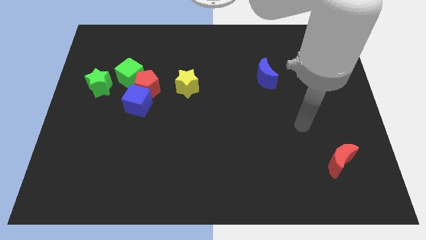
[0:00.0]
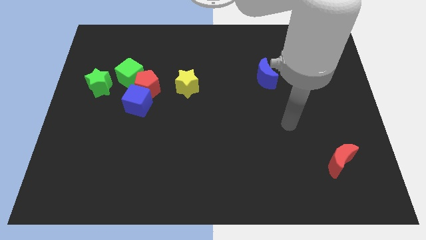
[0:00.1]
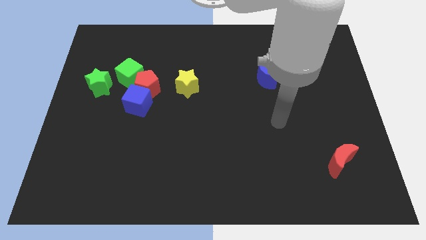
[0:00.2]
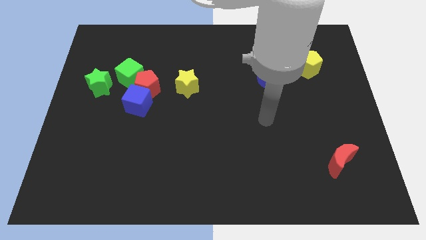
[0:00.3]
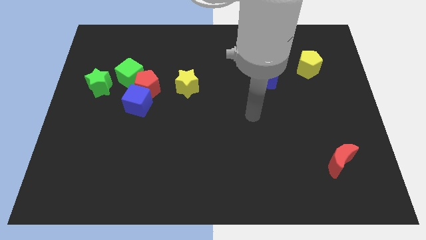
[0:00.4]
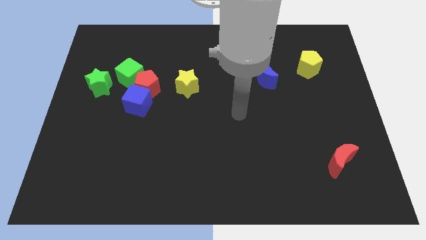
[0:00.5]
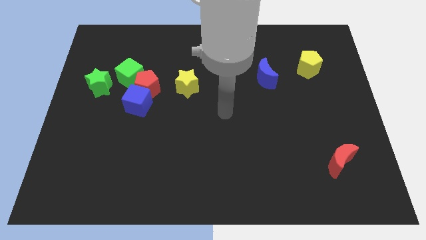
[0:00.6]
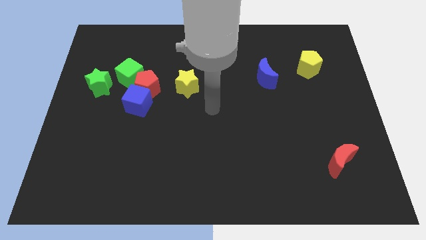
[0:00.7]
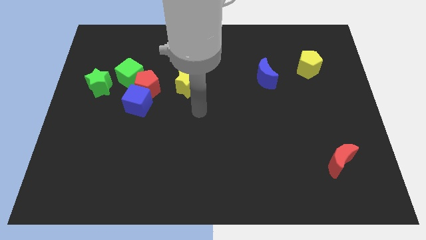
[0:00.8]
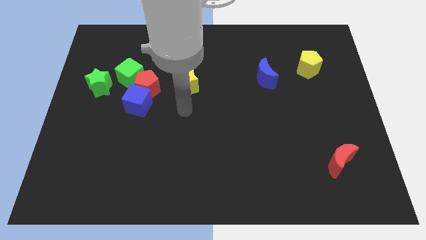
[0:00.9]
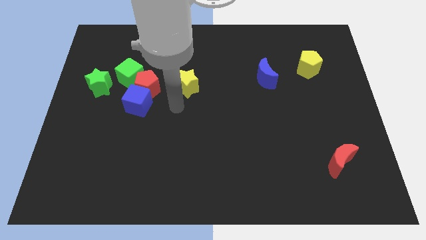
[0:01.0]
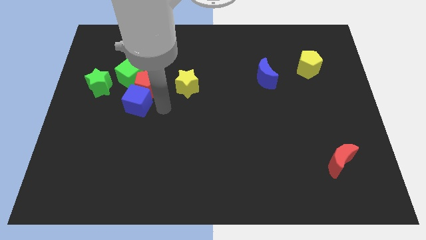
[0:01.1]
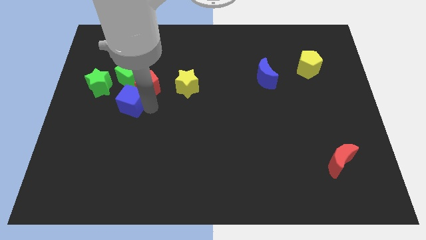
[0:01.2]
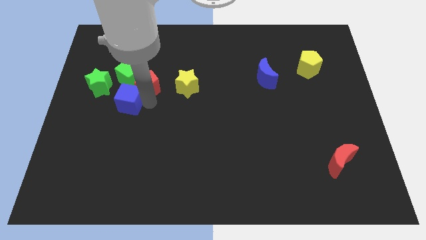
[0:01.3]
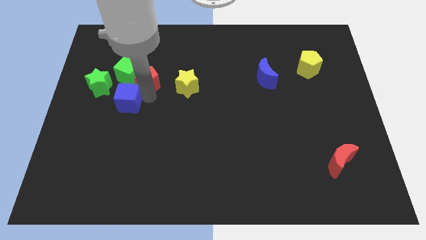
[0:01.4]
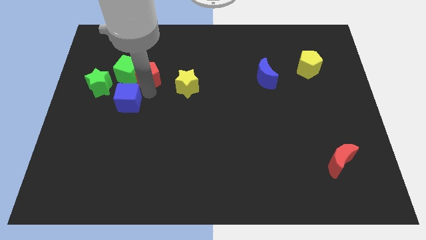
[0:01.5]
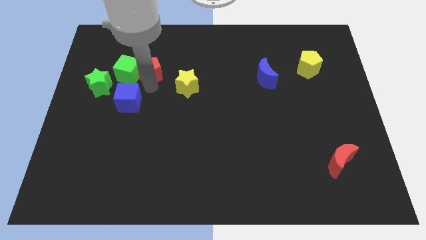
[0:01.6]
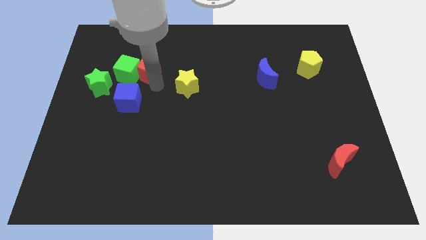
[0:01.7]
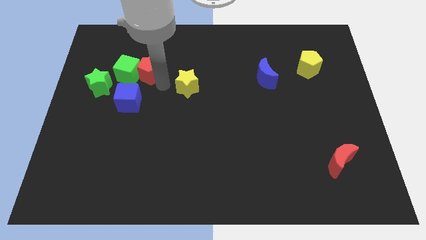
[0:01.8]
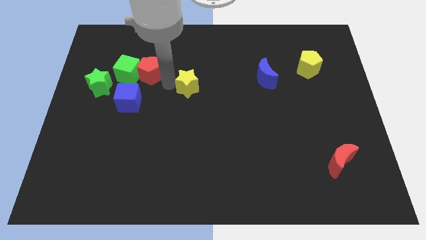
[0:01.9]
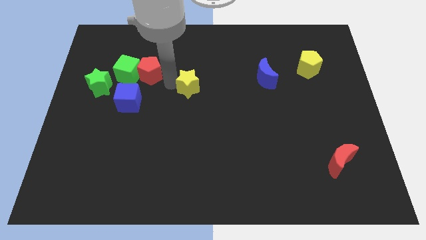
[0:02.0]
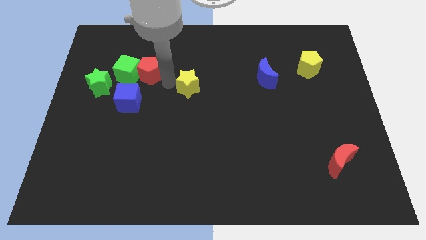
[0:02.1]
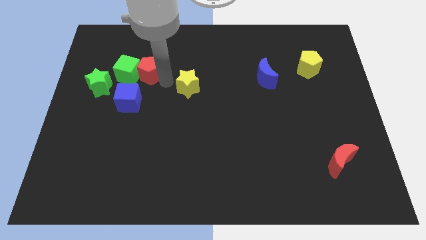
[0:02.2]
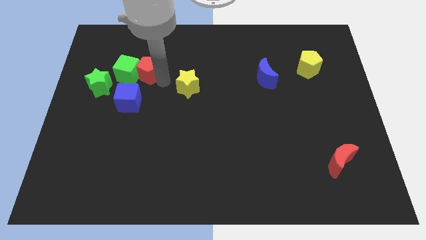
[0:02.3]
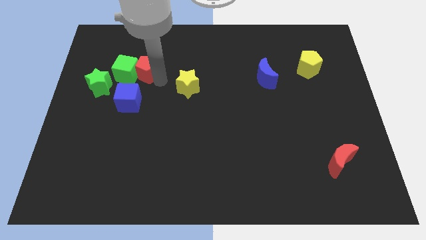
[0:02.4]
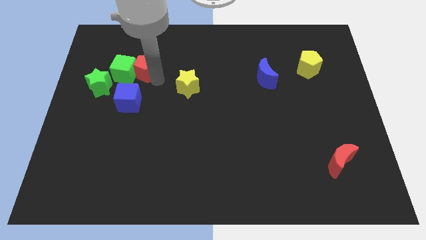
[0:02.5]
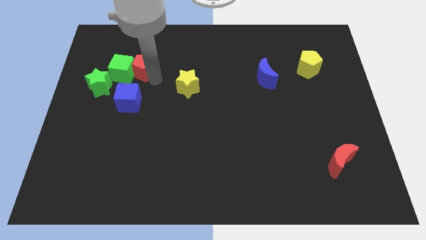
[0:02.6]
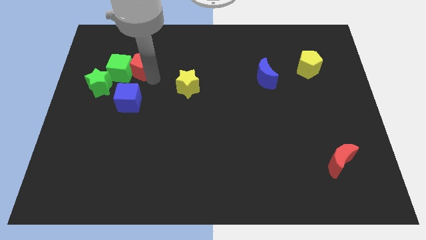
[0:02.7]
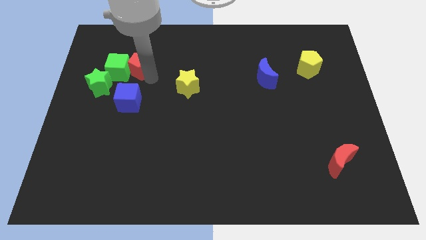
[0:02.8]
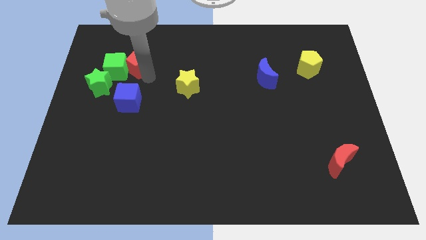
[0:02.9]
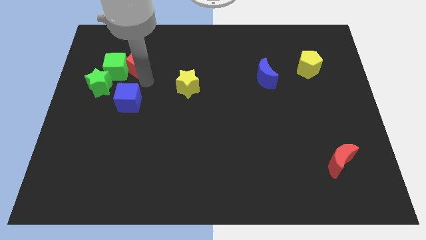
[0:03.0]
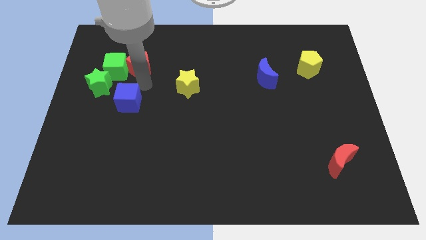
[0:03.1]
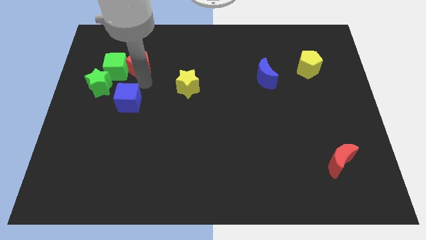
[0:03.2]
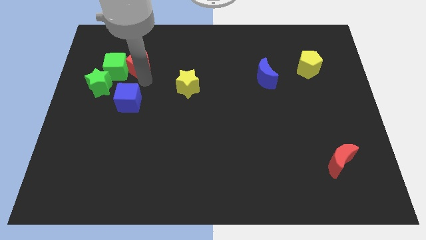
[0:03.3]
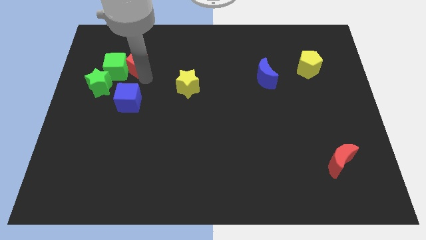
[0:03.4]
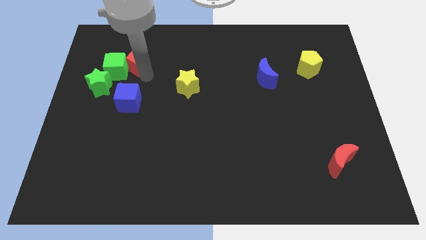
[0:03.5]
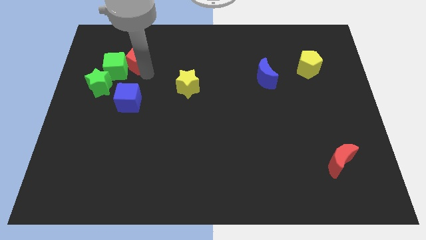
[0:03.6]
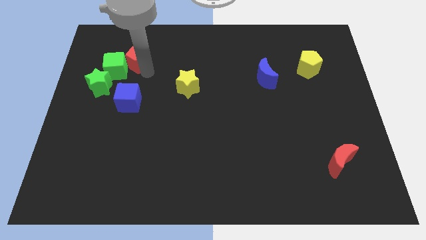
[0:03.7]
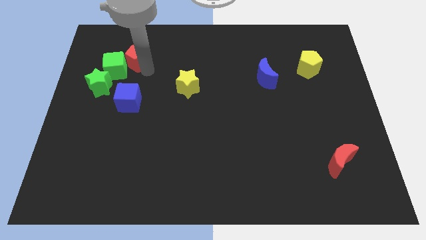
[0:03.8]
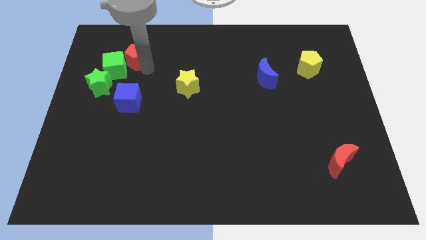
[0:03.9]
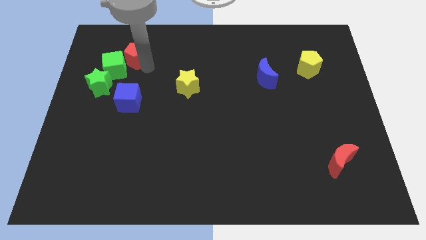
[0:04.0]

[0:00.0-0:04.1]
move the red pentagon away from the clump

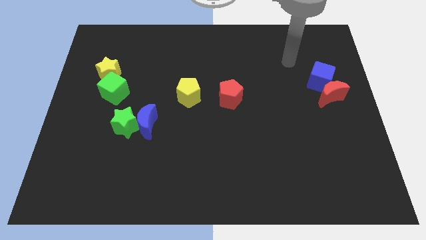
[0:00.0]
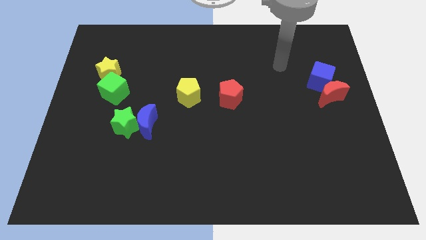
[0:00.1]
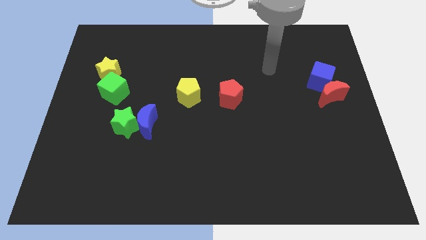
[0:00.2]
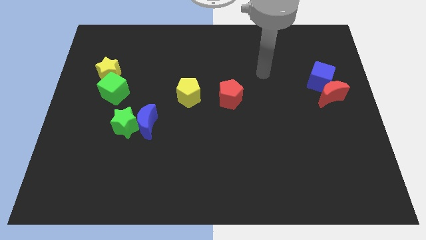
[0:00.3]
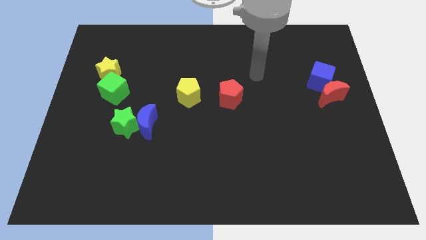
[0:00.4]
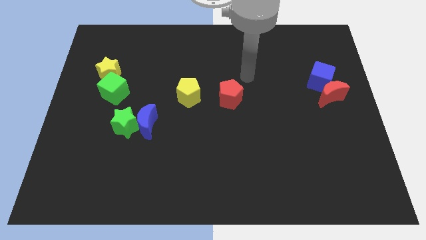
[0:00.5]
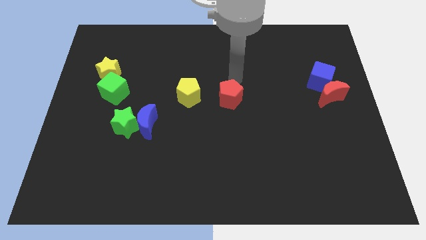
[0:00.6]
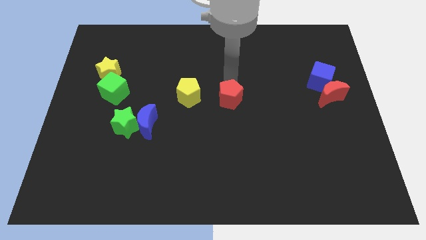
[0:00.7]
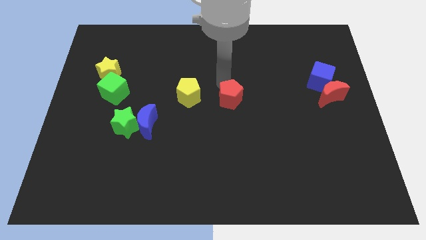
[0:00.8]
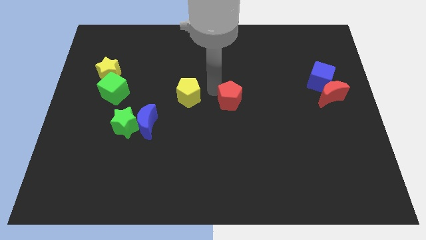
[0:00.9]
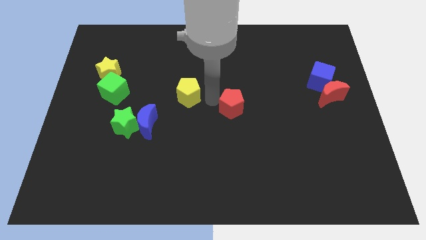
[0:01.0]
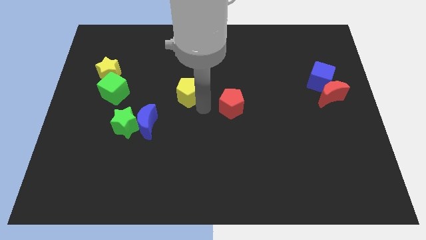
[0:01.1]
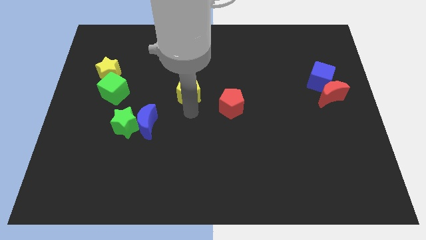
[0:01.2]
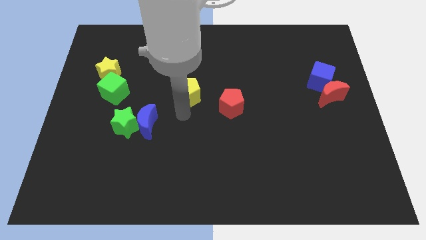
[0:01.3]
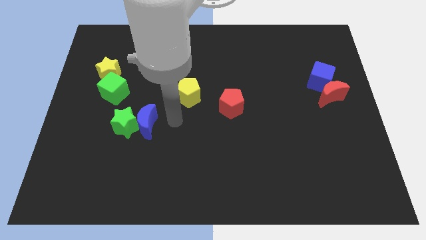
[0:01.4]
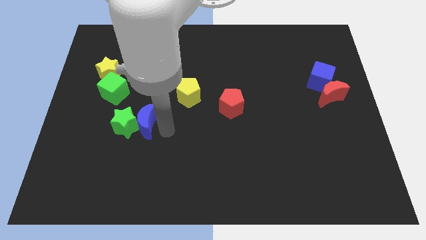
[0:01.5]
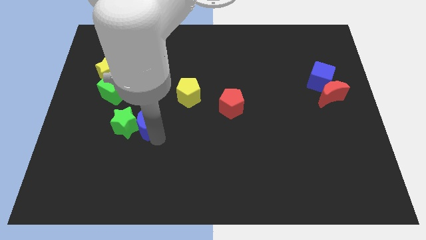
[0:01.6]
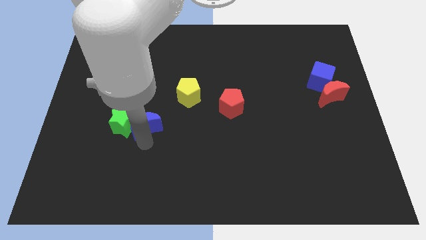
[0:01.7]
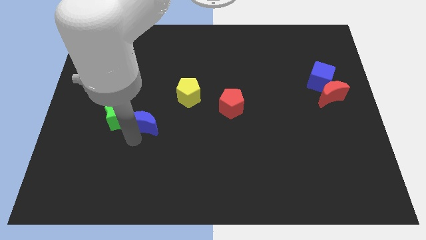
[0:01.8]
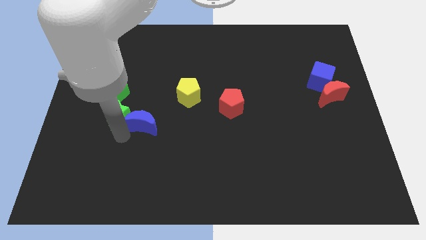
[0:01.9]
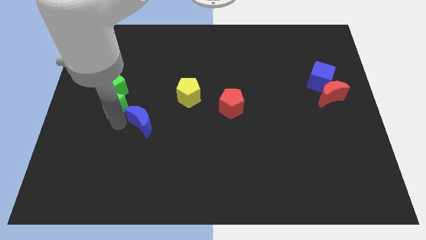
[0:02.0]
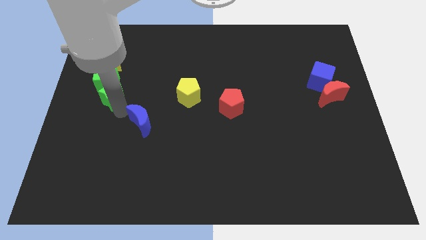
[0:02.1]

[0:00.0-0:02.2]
move the blue moon away from the green star

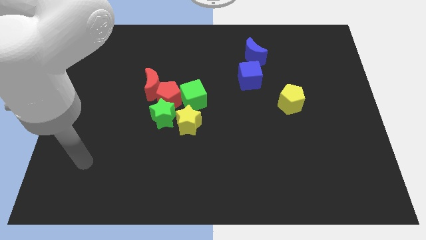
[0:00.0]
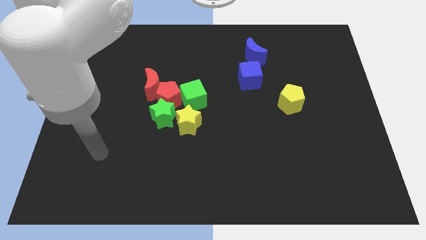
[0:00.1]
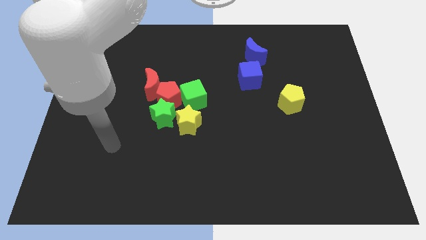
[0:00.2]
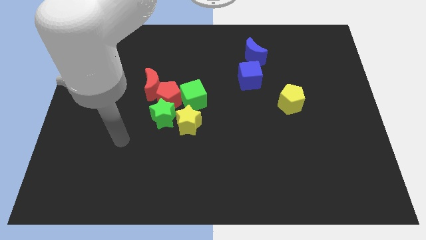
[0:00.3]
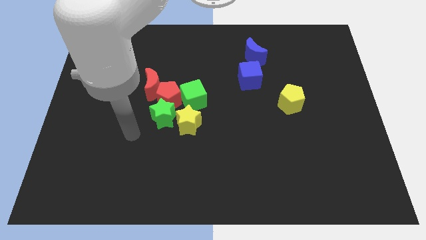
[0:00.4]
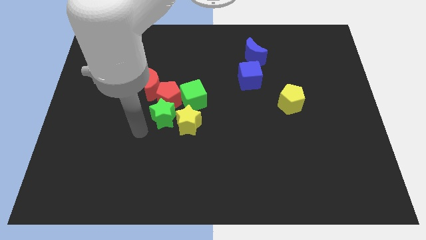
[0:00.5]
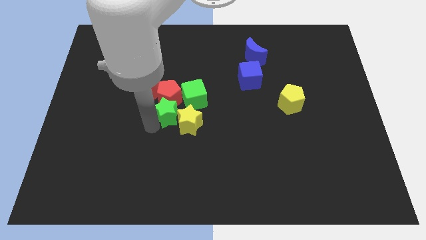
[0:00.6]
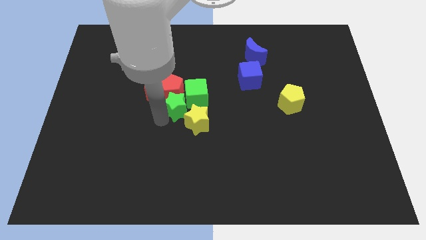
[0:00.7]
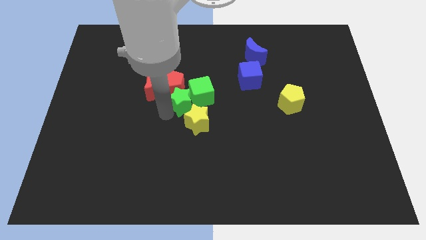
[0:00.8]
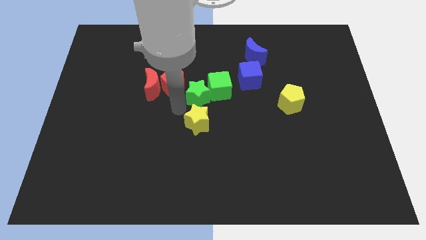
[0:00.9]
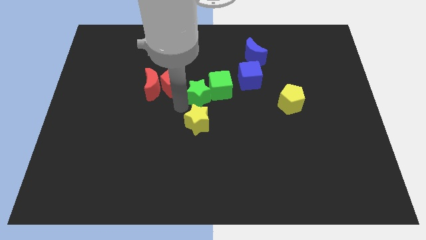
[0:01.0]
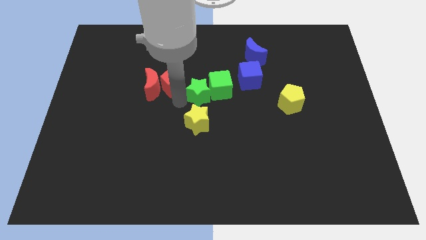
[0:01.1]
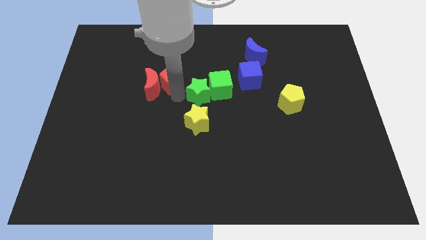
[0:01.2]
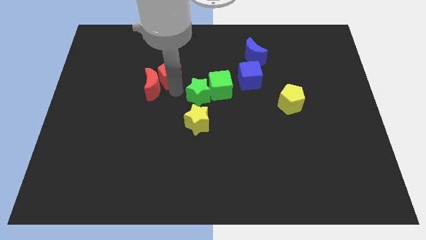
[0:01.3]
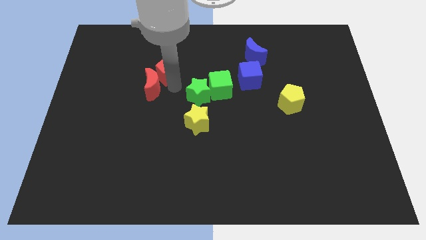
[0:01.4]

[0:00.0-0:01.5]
separate the red pentagon from the group

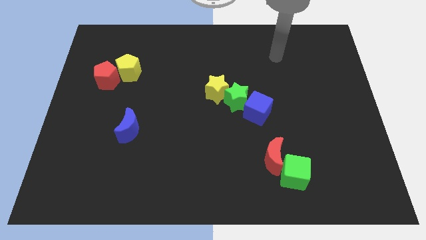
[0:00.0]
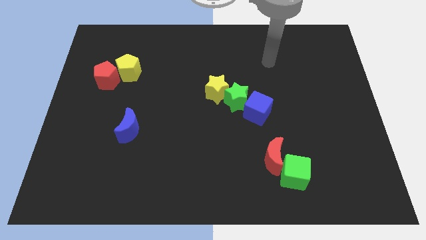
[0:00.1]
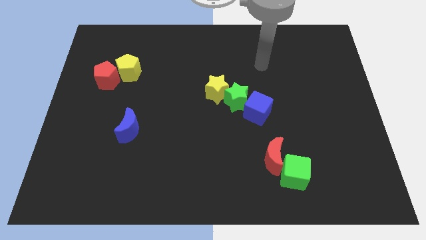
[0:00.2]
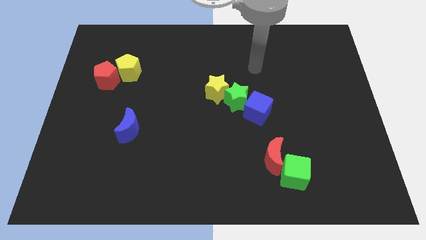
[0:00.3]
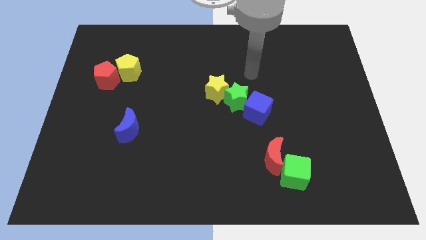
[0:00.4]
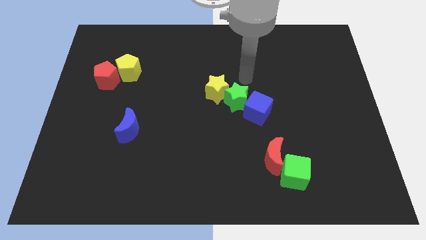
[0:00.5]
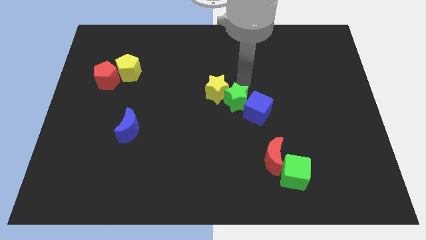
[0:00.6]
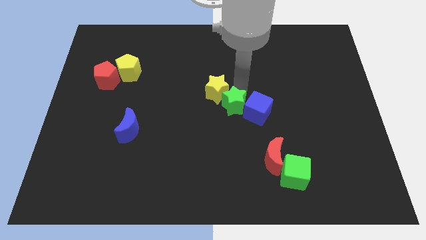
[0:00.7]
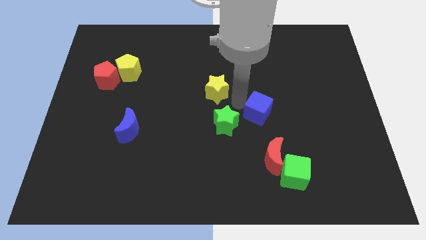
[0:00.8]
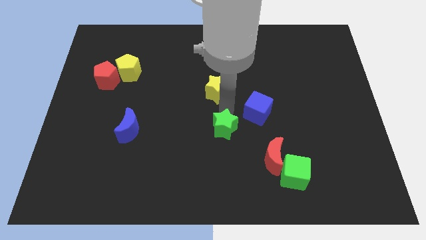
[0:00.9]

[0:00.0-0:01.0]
pull the yellow star apart from the green star

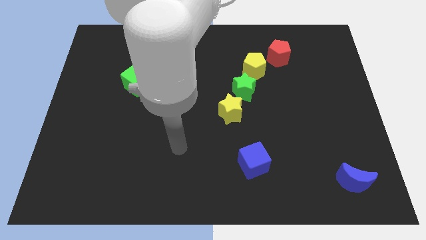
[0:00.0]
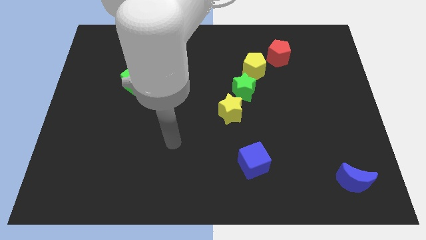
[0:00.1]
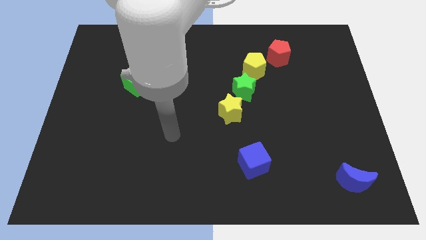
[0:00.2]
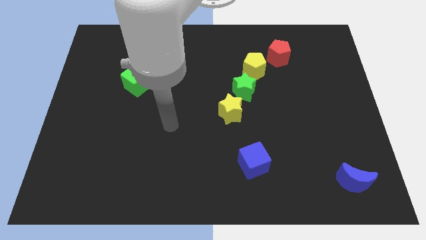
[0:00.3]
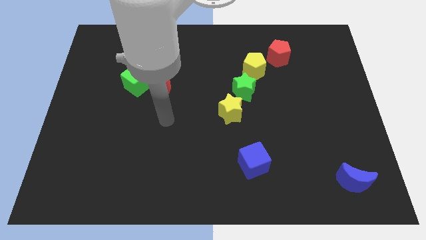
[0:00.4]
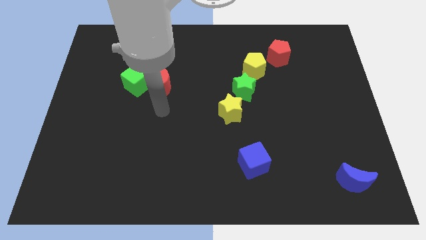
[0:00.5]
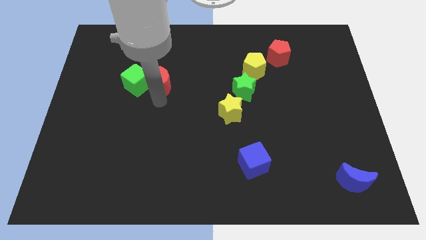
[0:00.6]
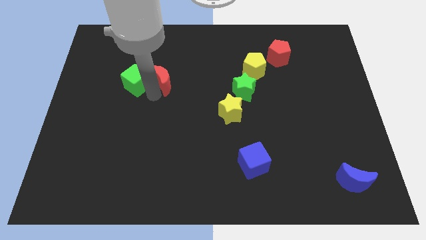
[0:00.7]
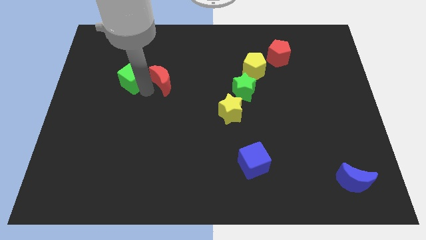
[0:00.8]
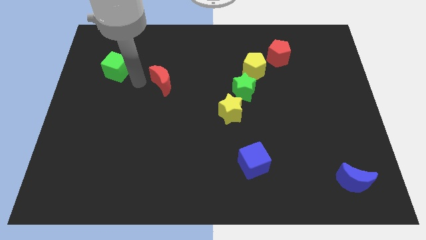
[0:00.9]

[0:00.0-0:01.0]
pull the red moon apart from the green cube
